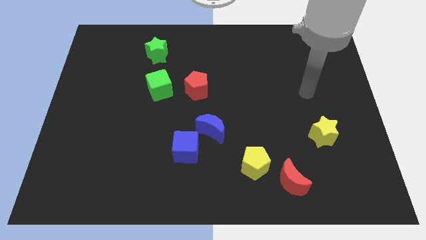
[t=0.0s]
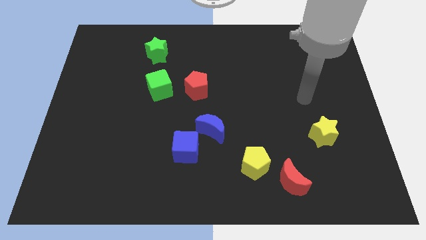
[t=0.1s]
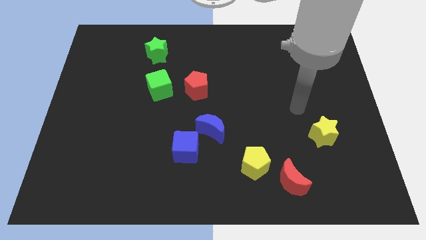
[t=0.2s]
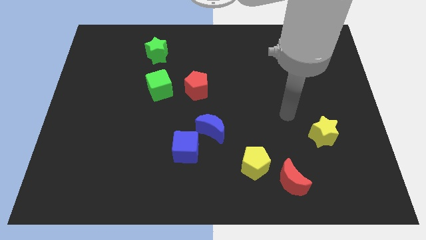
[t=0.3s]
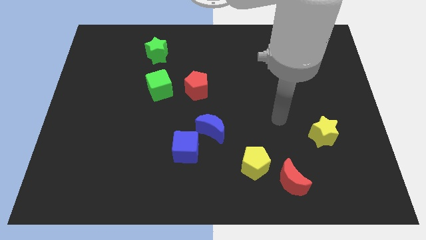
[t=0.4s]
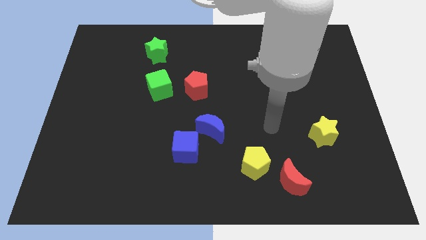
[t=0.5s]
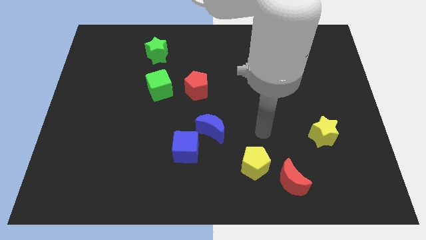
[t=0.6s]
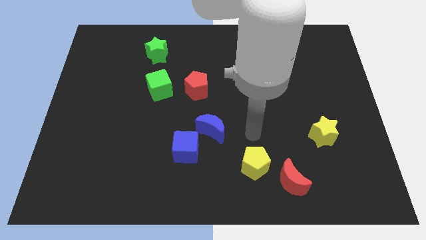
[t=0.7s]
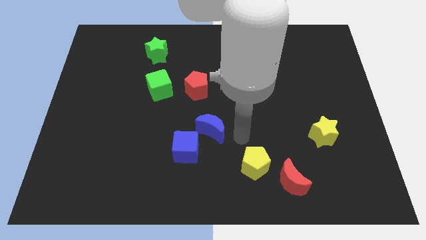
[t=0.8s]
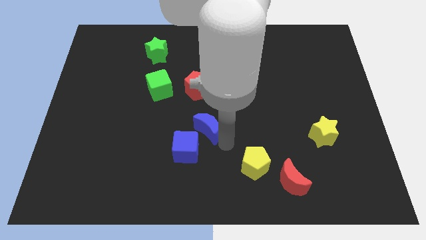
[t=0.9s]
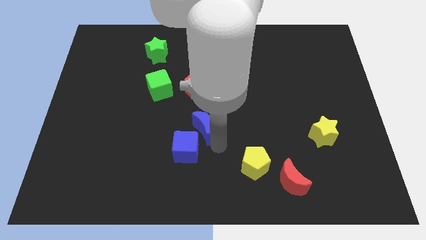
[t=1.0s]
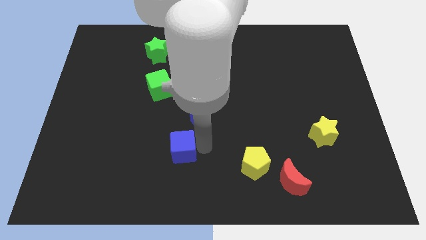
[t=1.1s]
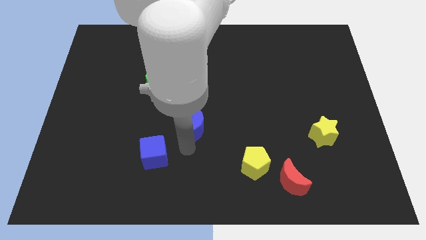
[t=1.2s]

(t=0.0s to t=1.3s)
pull the blue moon apart from the blue cube

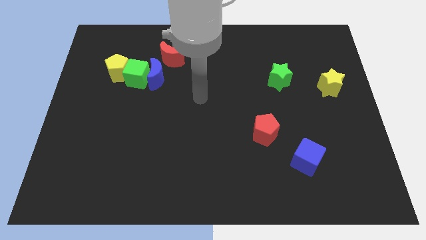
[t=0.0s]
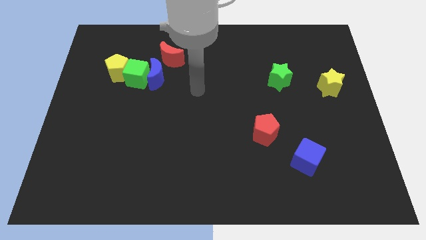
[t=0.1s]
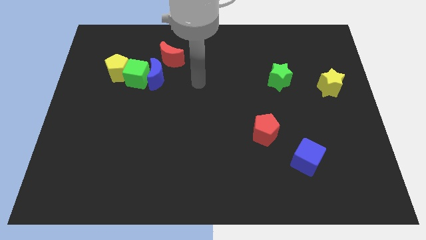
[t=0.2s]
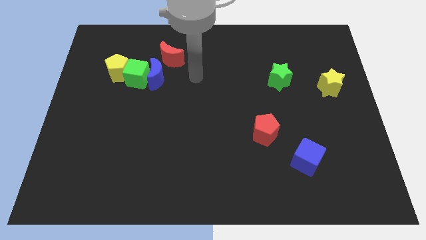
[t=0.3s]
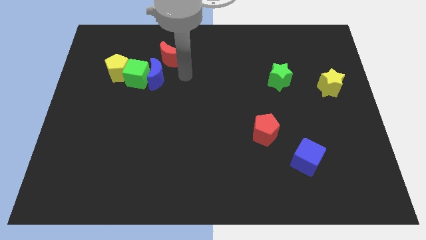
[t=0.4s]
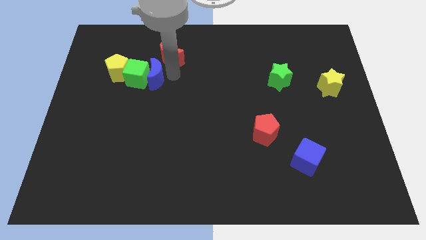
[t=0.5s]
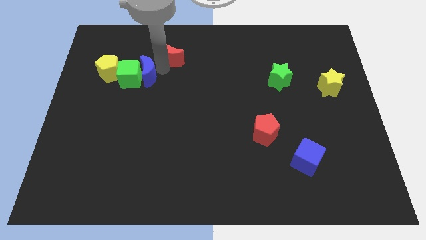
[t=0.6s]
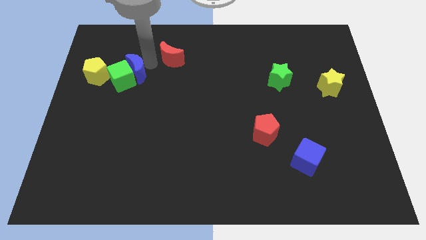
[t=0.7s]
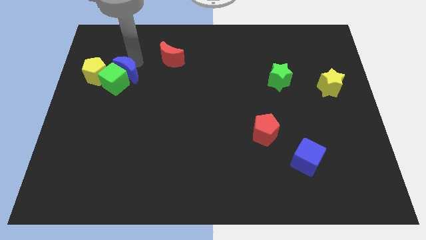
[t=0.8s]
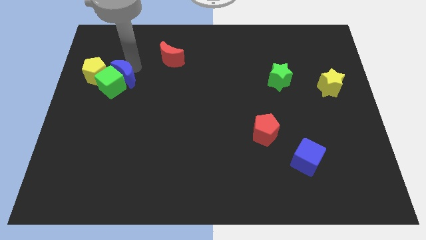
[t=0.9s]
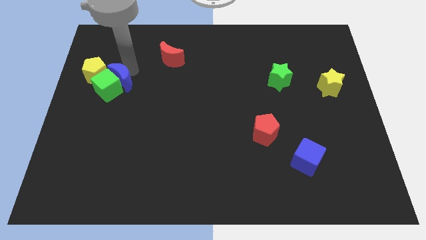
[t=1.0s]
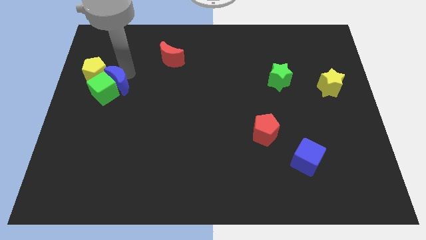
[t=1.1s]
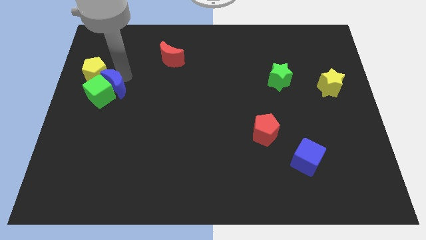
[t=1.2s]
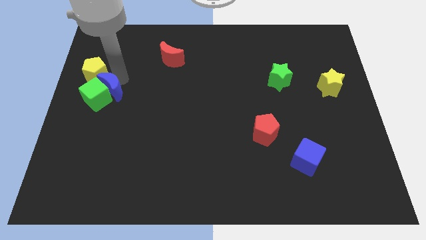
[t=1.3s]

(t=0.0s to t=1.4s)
move the green cube away from the blue moon, yellow pentagon, and red moon

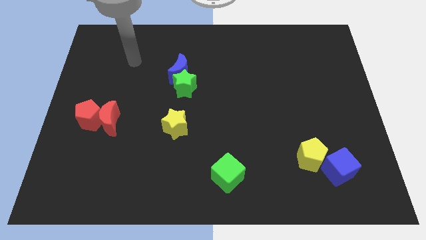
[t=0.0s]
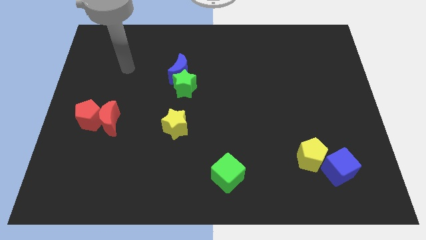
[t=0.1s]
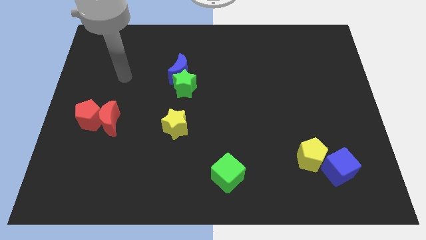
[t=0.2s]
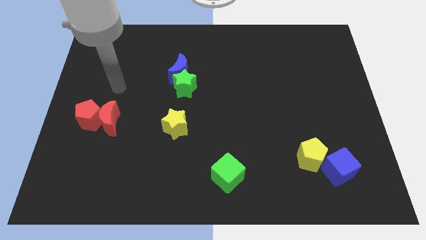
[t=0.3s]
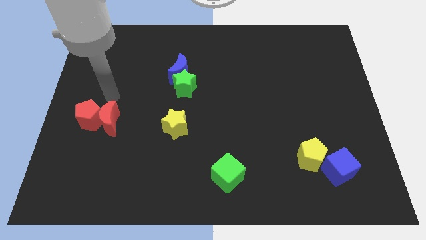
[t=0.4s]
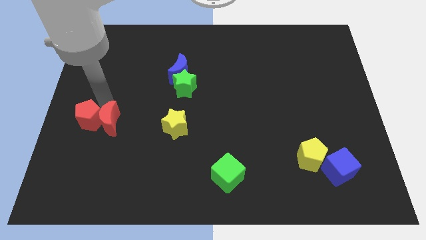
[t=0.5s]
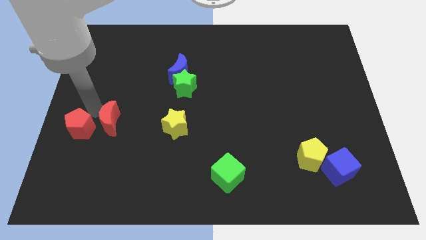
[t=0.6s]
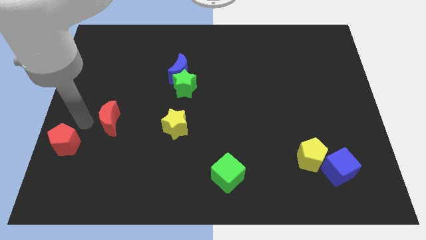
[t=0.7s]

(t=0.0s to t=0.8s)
move the red moon away from the red pentagon

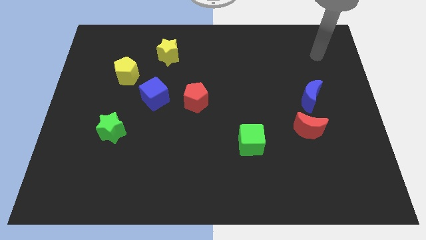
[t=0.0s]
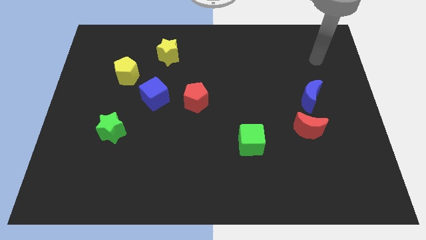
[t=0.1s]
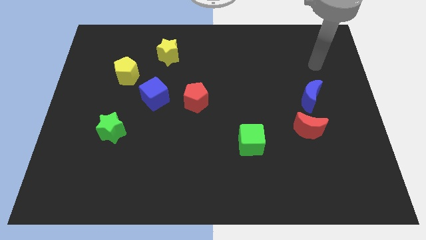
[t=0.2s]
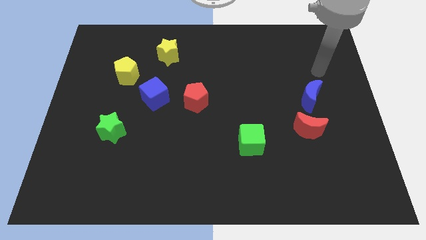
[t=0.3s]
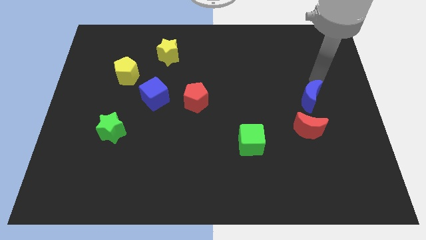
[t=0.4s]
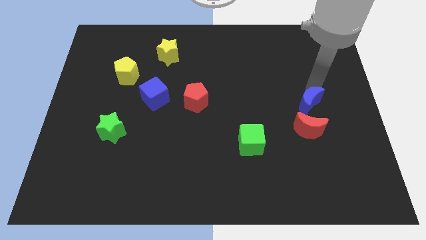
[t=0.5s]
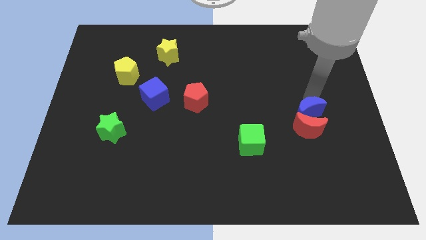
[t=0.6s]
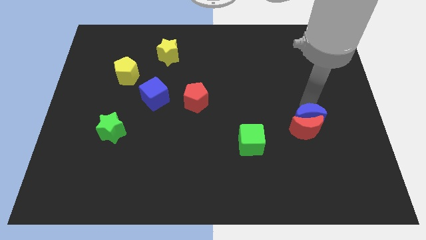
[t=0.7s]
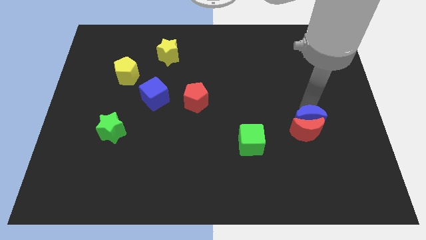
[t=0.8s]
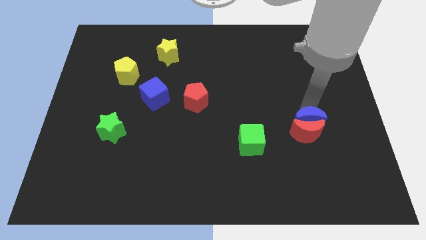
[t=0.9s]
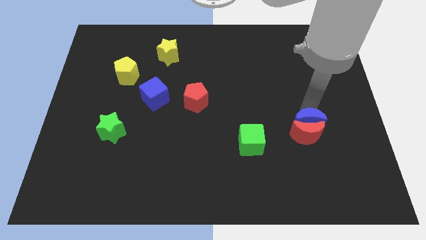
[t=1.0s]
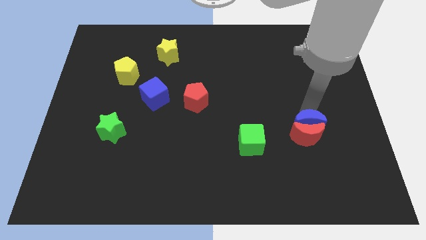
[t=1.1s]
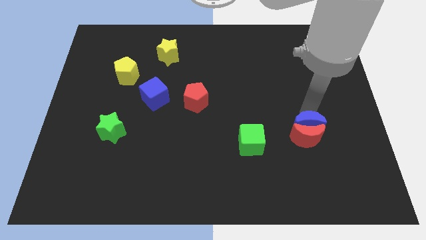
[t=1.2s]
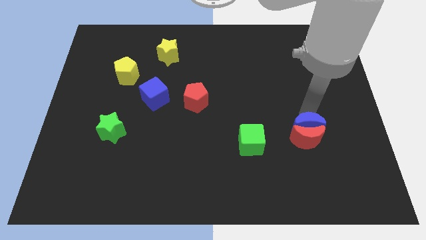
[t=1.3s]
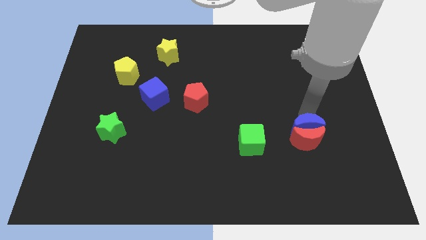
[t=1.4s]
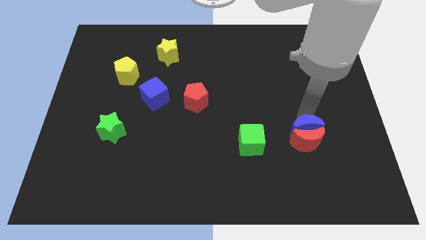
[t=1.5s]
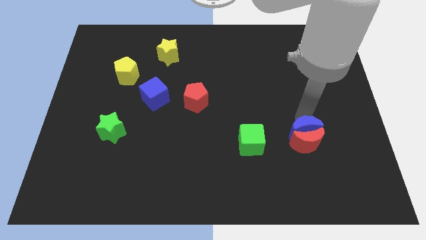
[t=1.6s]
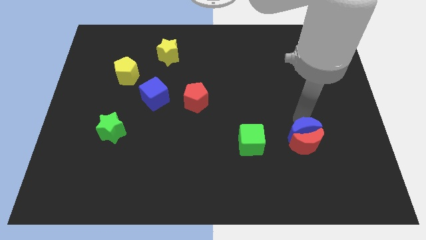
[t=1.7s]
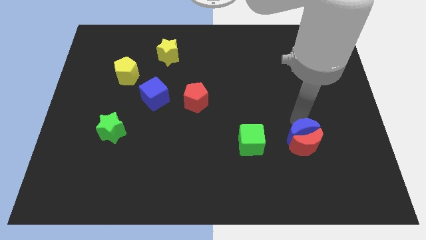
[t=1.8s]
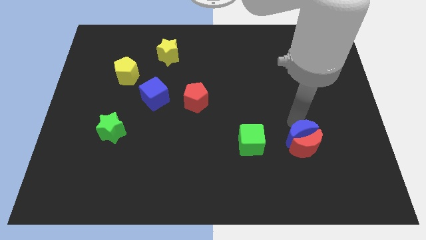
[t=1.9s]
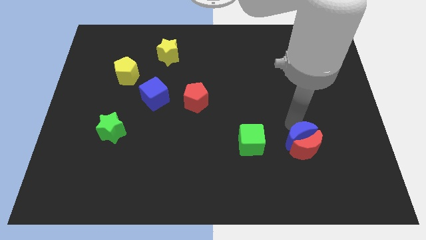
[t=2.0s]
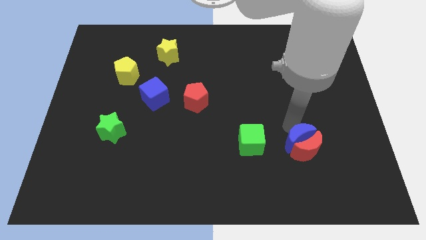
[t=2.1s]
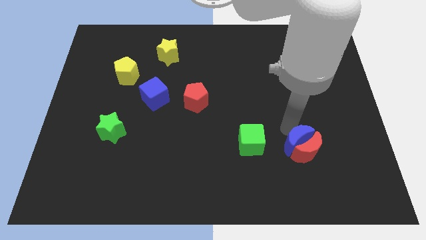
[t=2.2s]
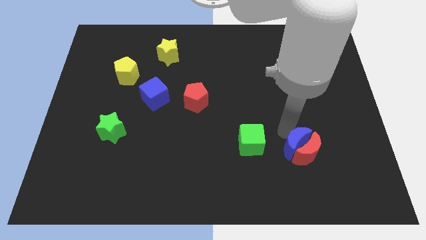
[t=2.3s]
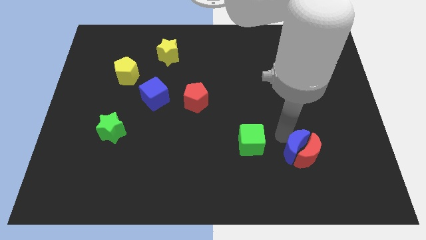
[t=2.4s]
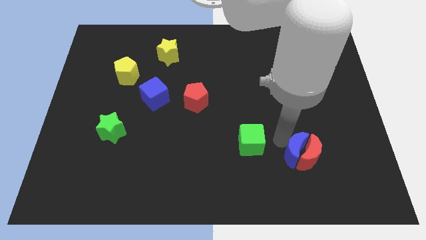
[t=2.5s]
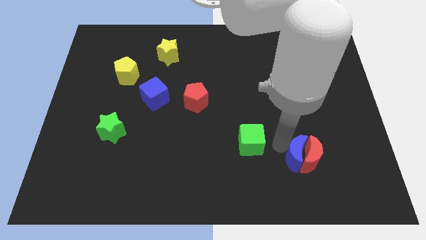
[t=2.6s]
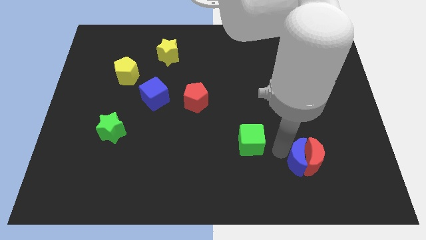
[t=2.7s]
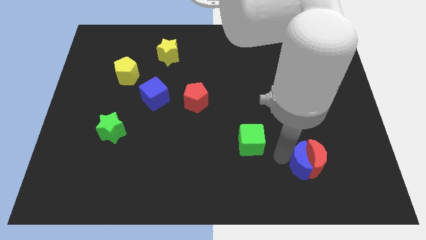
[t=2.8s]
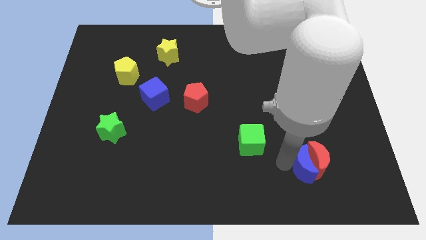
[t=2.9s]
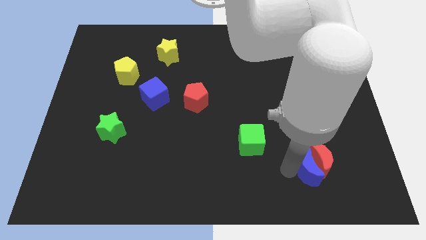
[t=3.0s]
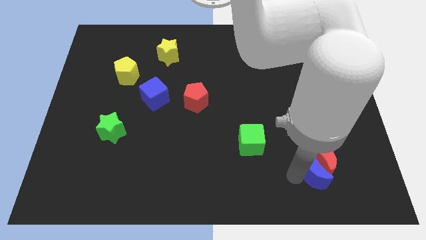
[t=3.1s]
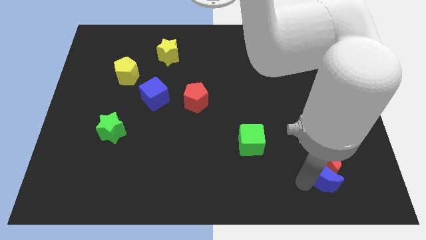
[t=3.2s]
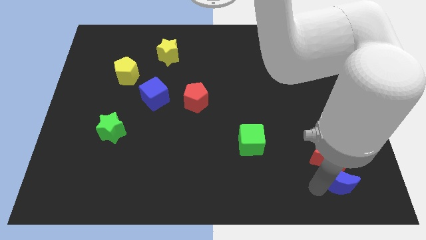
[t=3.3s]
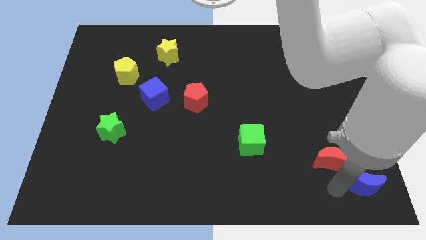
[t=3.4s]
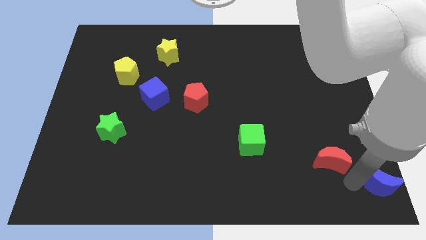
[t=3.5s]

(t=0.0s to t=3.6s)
move the red moon away from the blue moon

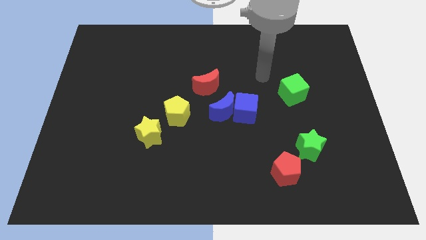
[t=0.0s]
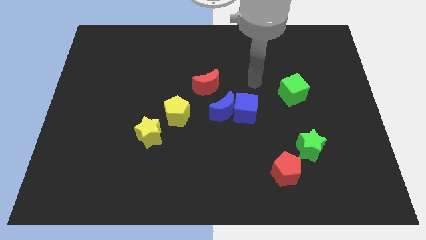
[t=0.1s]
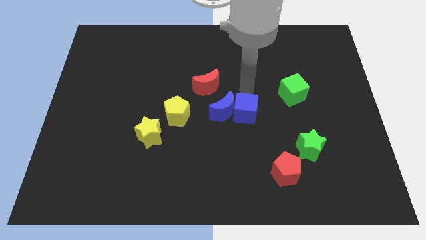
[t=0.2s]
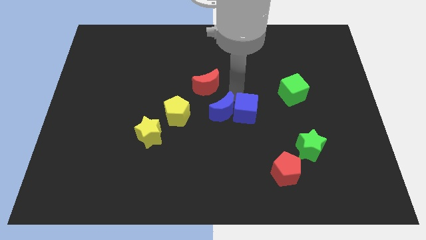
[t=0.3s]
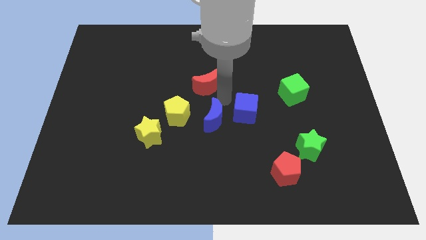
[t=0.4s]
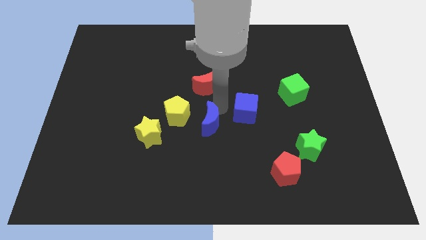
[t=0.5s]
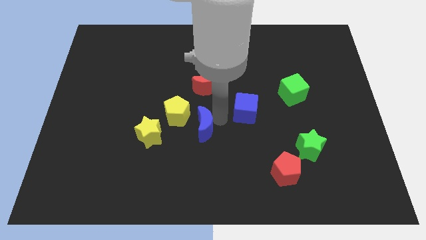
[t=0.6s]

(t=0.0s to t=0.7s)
separate the blue cube from the blue moon

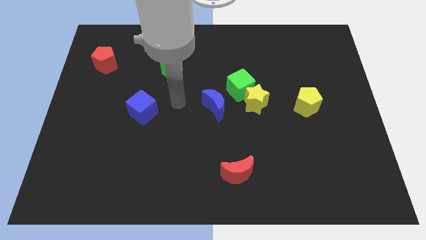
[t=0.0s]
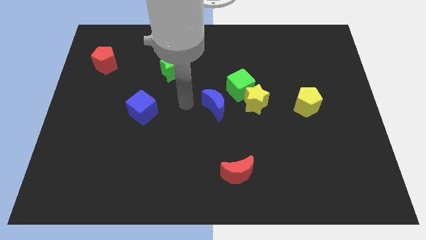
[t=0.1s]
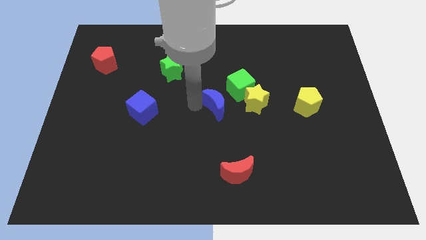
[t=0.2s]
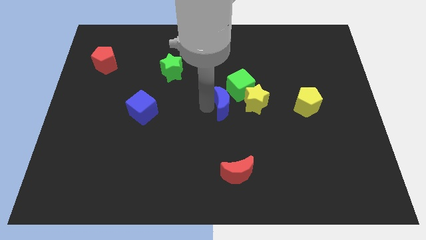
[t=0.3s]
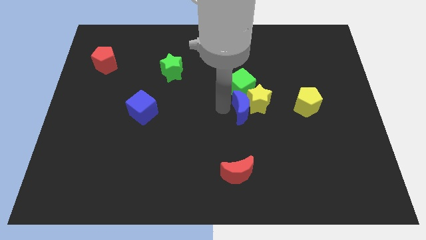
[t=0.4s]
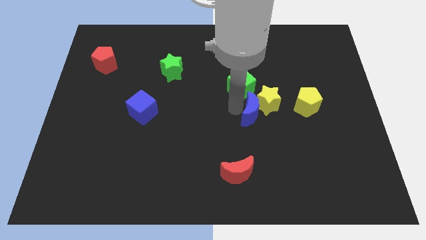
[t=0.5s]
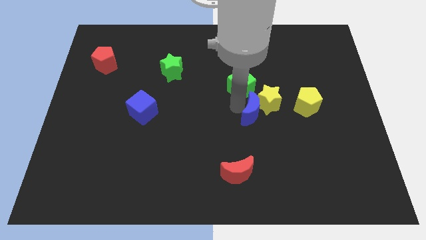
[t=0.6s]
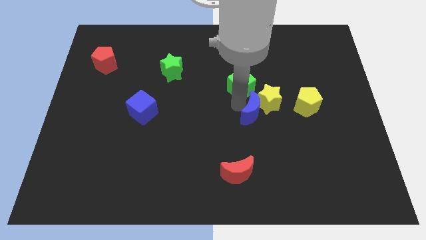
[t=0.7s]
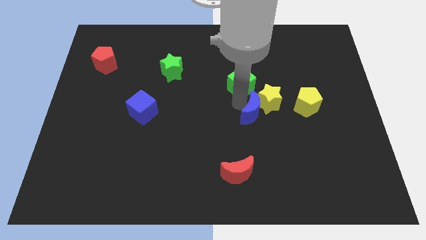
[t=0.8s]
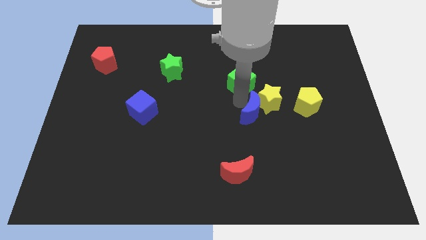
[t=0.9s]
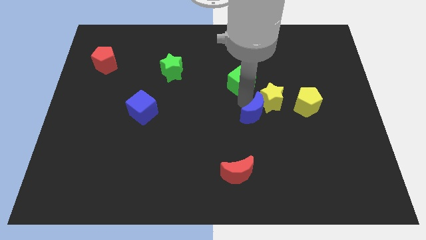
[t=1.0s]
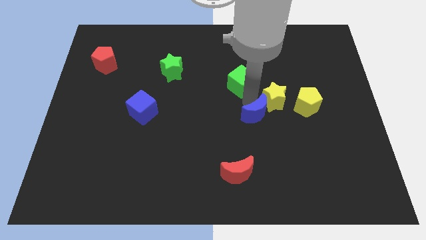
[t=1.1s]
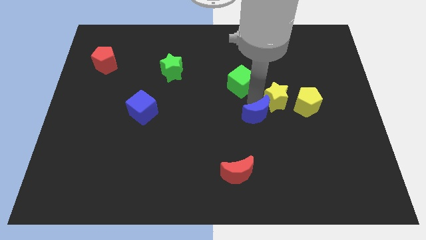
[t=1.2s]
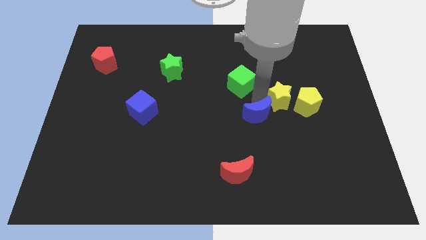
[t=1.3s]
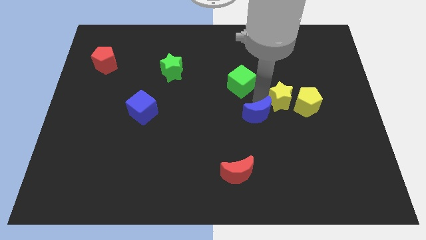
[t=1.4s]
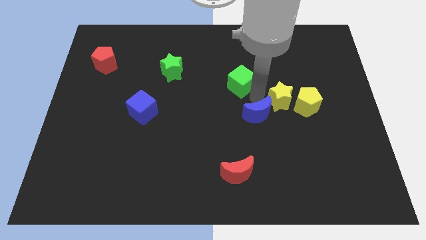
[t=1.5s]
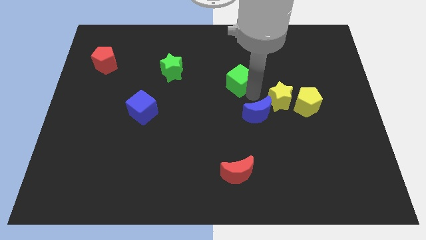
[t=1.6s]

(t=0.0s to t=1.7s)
move the green cube away from the yellow star and blue moon
